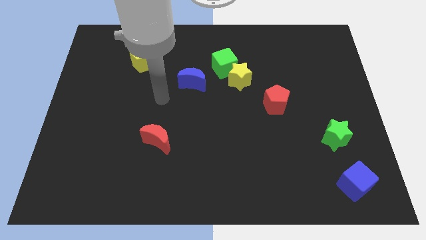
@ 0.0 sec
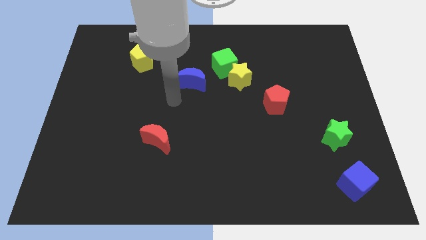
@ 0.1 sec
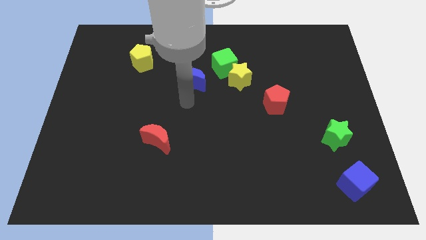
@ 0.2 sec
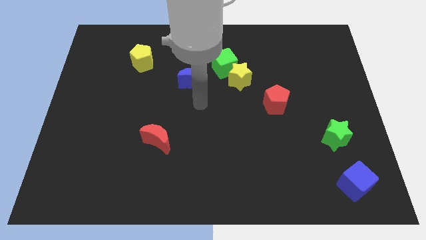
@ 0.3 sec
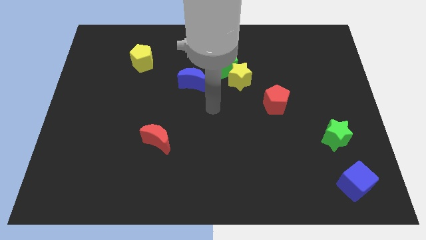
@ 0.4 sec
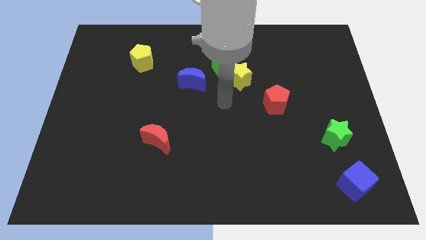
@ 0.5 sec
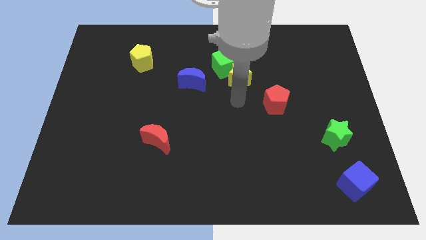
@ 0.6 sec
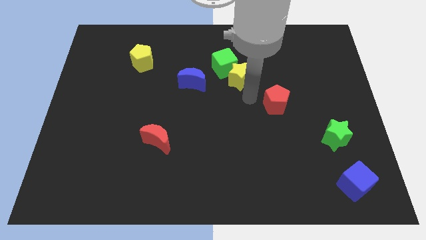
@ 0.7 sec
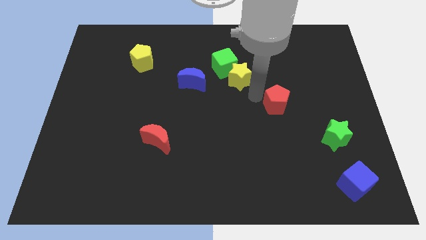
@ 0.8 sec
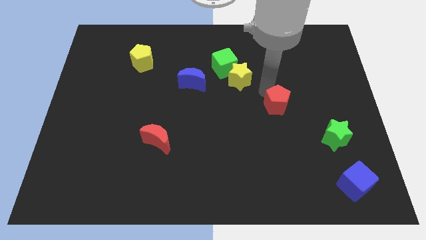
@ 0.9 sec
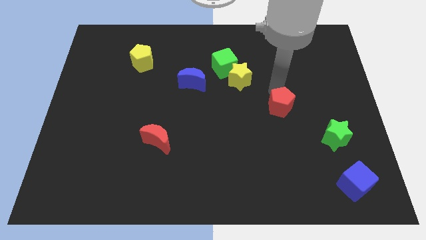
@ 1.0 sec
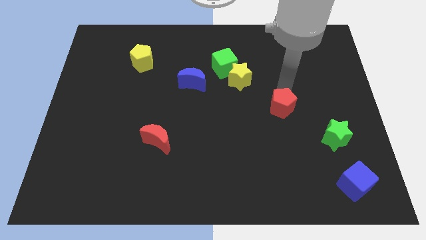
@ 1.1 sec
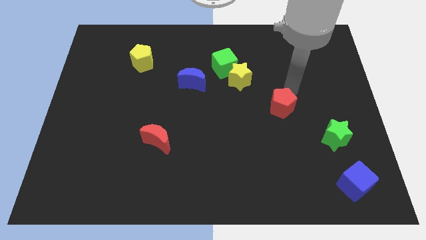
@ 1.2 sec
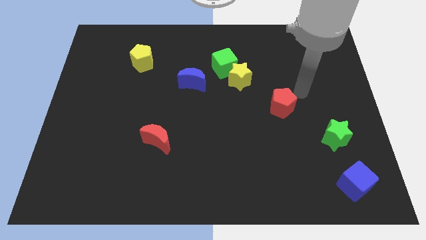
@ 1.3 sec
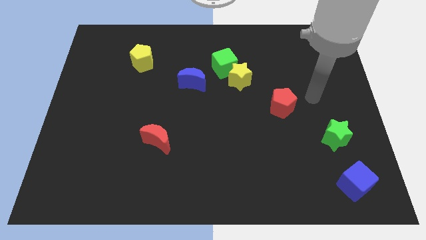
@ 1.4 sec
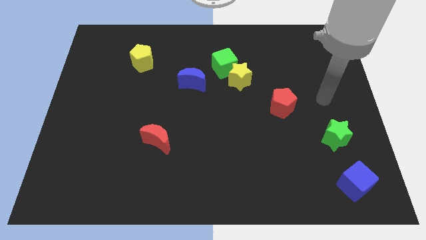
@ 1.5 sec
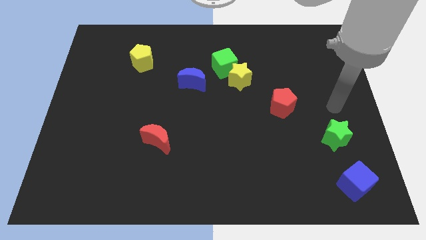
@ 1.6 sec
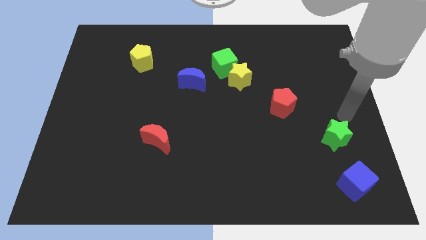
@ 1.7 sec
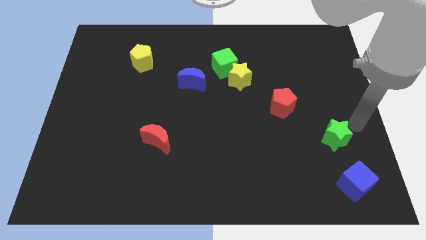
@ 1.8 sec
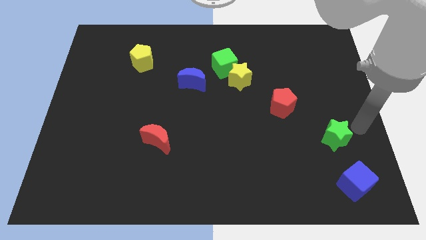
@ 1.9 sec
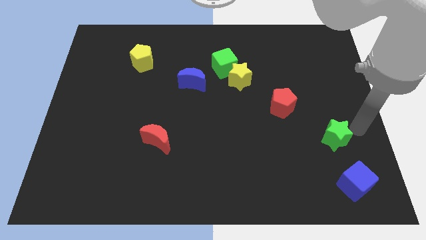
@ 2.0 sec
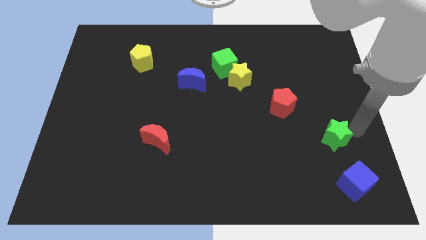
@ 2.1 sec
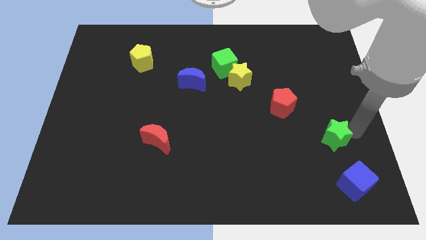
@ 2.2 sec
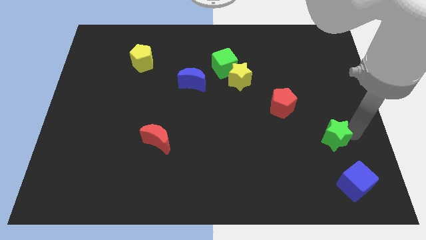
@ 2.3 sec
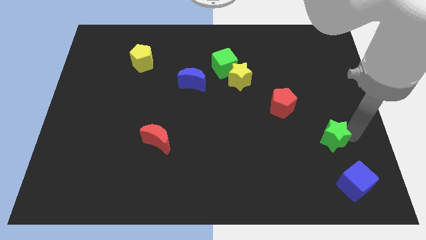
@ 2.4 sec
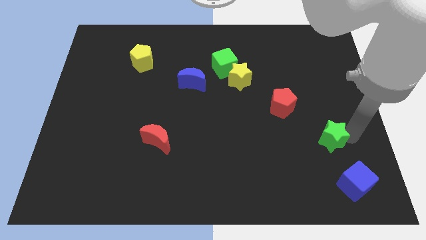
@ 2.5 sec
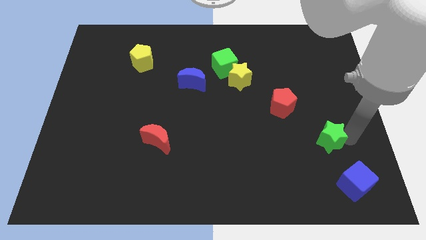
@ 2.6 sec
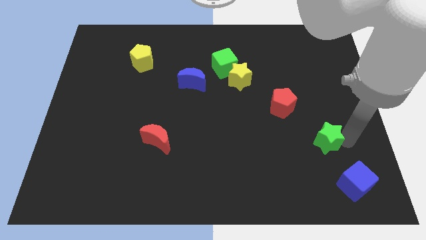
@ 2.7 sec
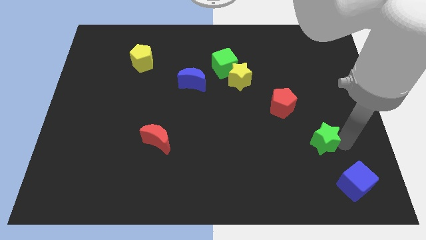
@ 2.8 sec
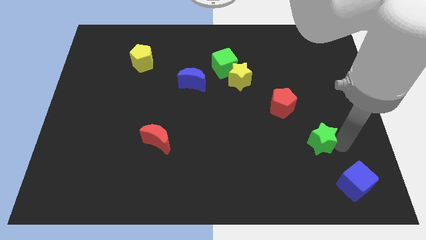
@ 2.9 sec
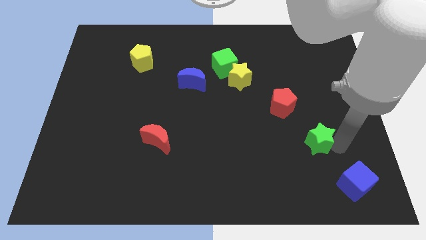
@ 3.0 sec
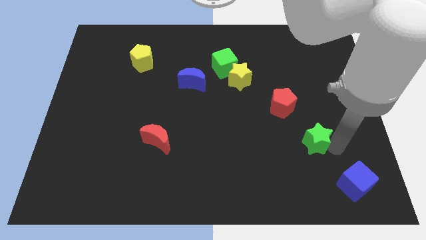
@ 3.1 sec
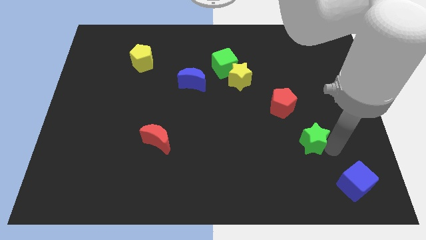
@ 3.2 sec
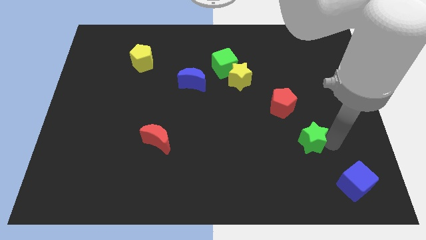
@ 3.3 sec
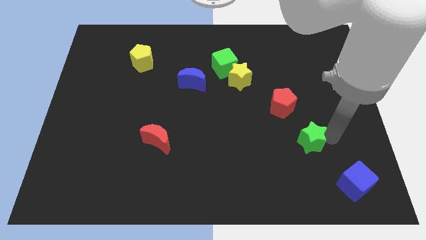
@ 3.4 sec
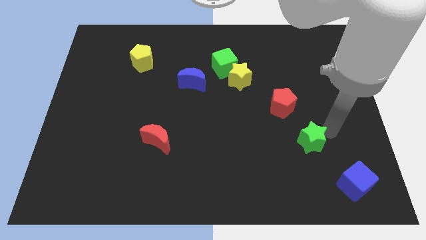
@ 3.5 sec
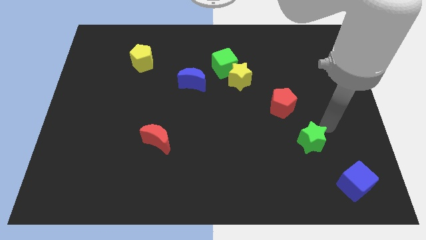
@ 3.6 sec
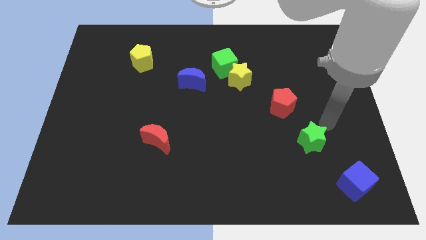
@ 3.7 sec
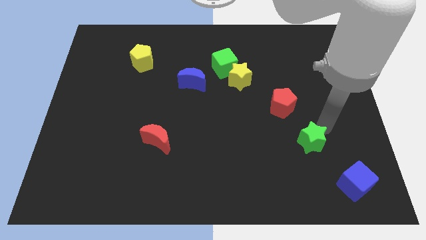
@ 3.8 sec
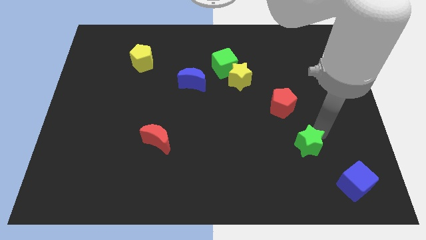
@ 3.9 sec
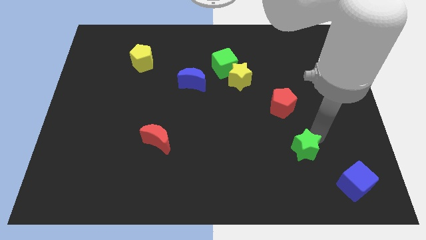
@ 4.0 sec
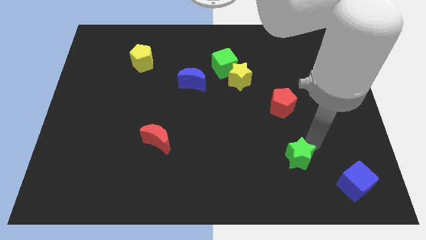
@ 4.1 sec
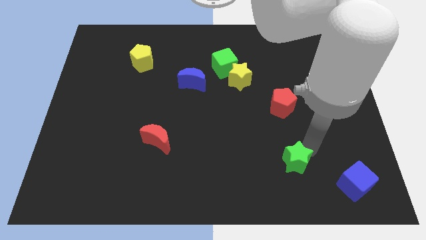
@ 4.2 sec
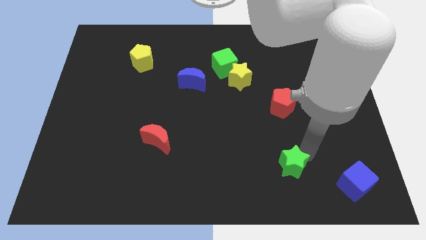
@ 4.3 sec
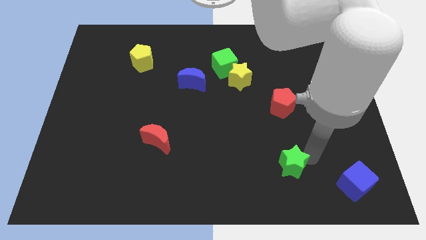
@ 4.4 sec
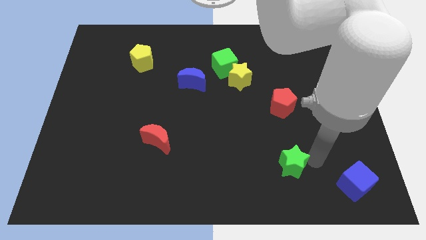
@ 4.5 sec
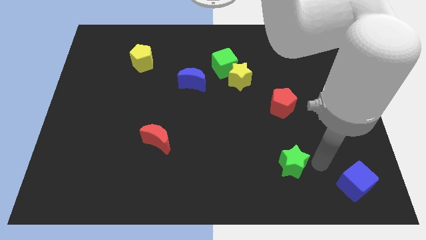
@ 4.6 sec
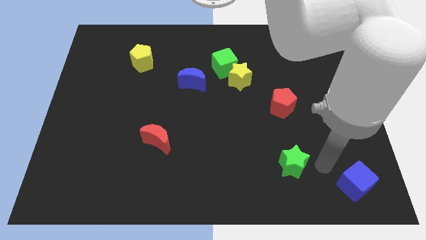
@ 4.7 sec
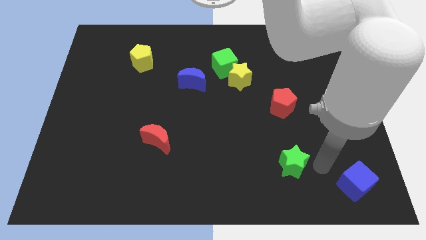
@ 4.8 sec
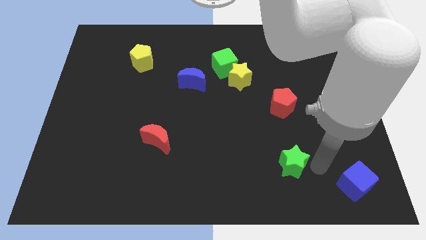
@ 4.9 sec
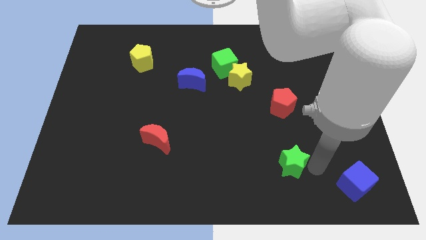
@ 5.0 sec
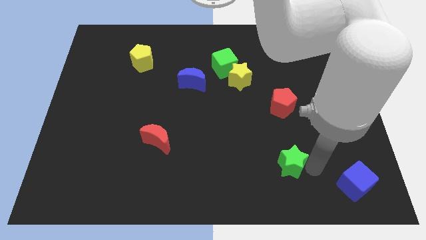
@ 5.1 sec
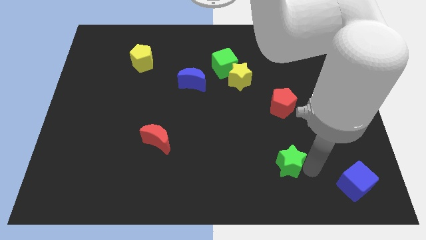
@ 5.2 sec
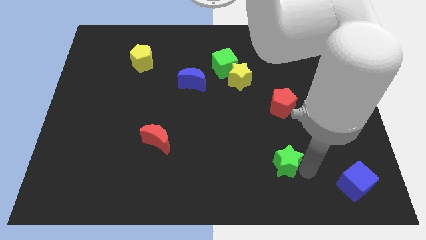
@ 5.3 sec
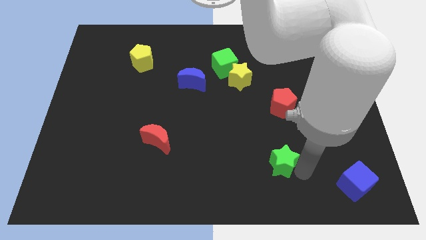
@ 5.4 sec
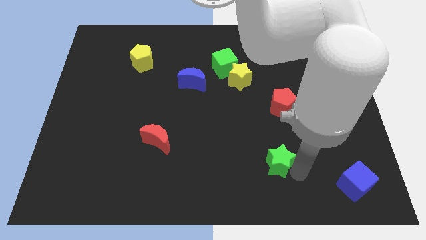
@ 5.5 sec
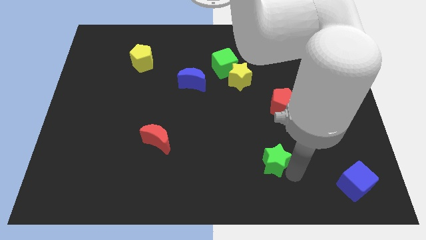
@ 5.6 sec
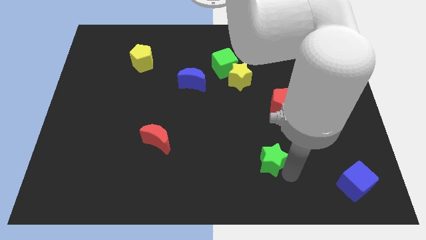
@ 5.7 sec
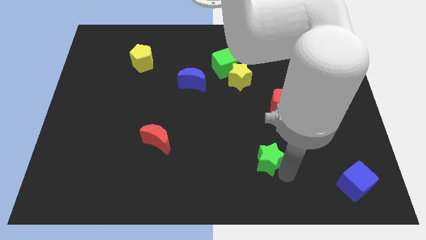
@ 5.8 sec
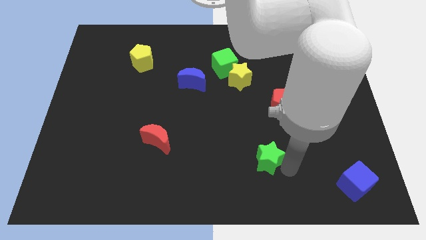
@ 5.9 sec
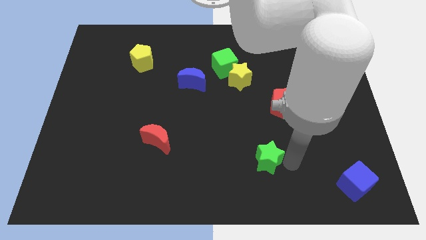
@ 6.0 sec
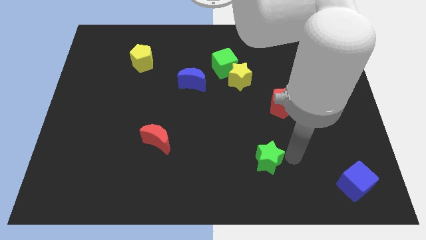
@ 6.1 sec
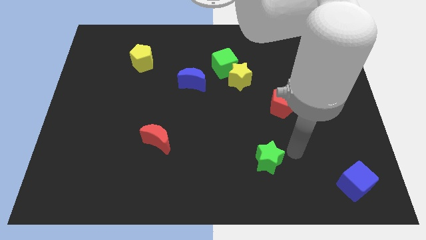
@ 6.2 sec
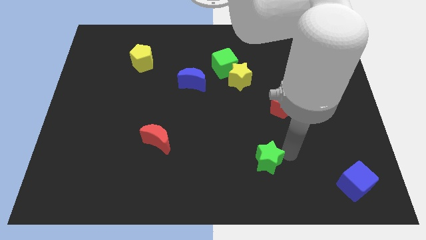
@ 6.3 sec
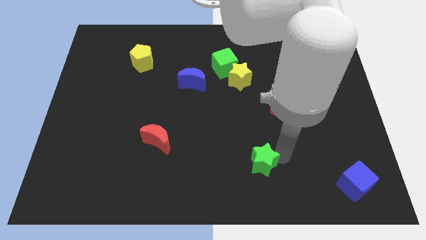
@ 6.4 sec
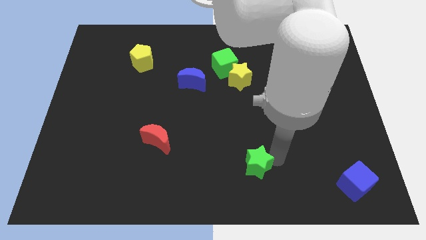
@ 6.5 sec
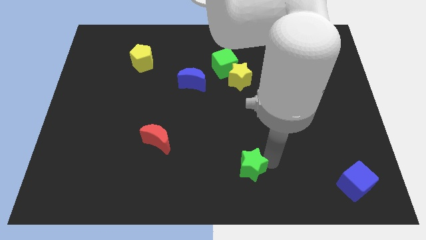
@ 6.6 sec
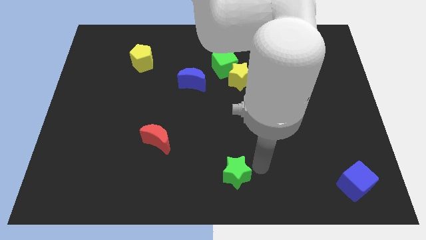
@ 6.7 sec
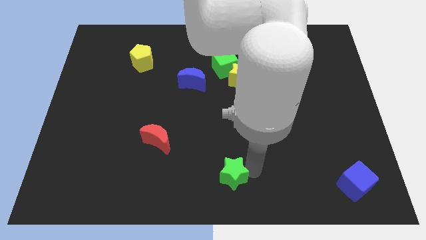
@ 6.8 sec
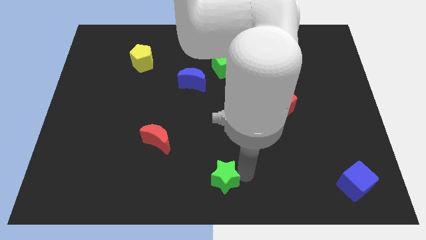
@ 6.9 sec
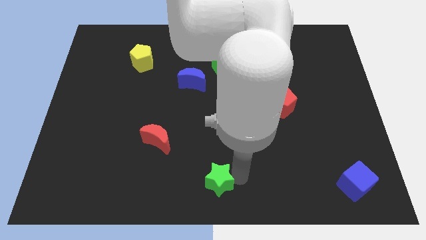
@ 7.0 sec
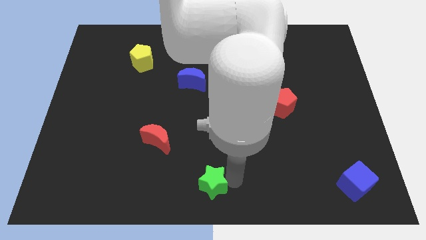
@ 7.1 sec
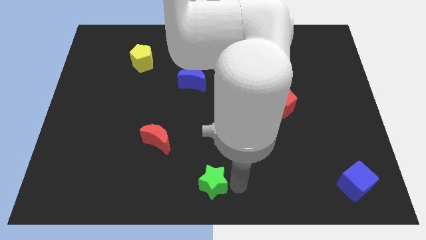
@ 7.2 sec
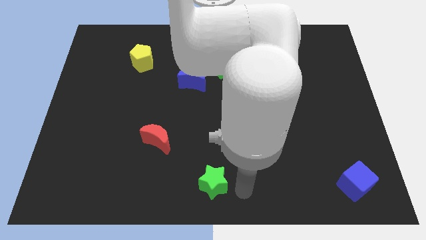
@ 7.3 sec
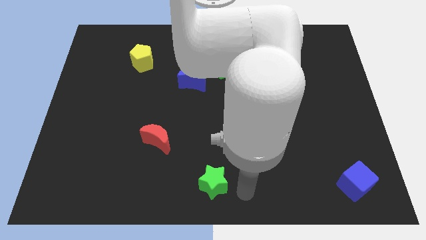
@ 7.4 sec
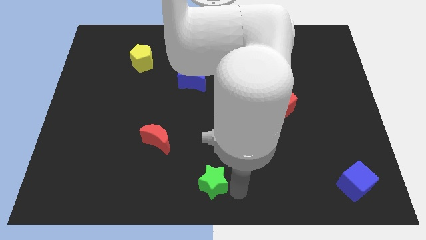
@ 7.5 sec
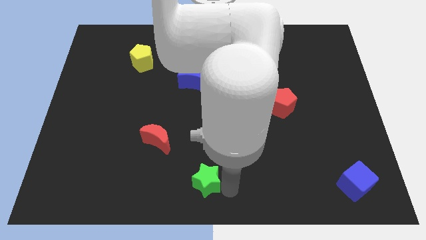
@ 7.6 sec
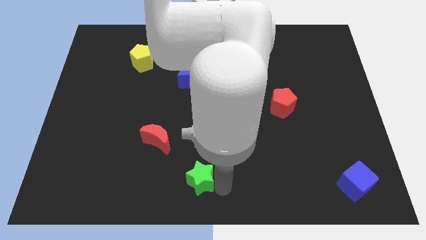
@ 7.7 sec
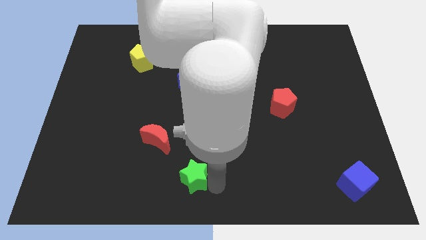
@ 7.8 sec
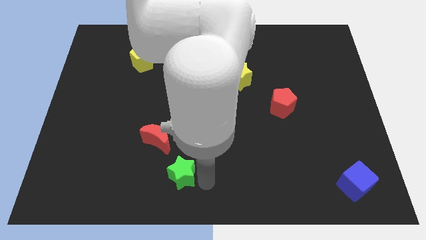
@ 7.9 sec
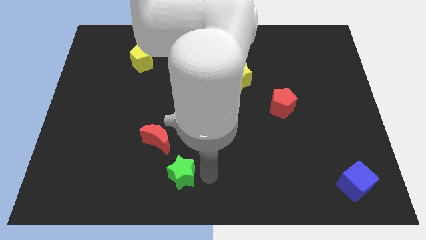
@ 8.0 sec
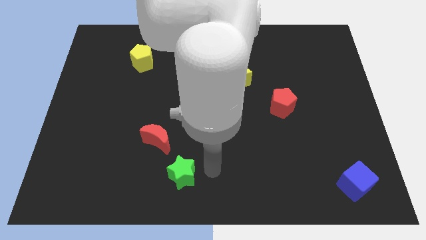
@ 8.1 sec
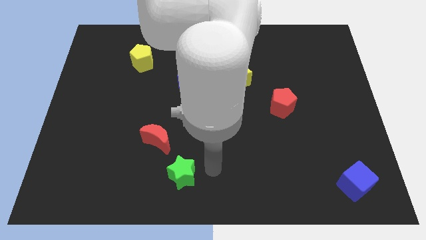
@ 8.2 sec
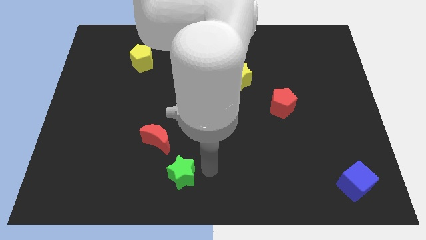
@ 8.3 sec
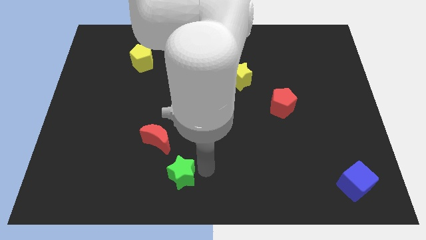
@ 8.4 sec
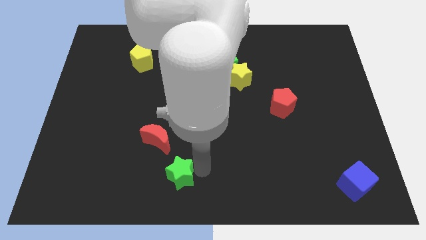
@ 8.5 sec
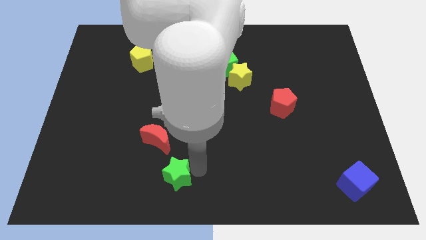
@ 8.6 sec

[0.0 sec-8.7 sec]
put the green star to the bottom side of the red moon
